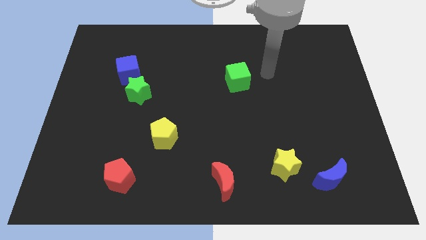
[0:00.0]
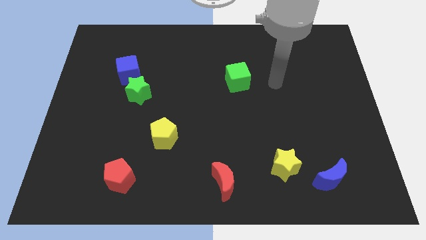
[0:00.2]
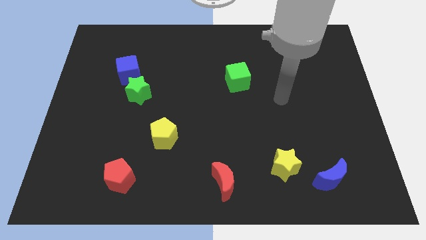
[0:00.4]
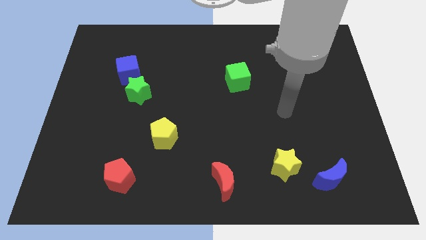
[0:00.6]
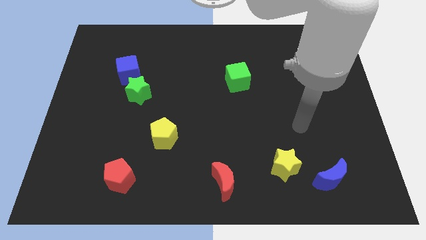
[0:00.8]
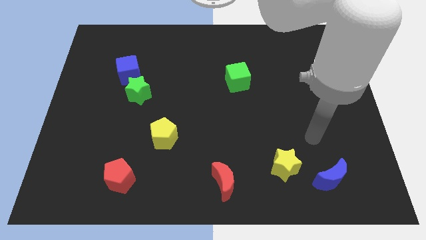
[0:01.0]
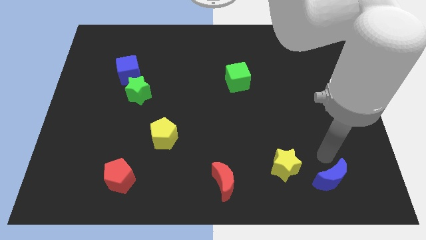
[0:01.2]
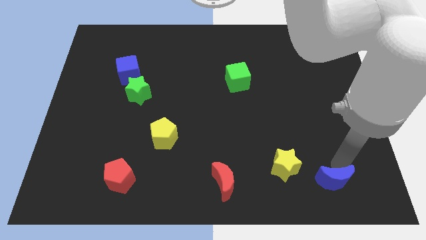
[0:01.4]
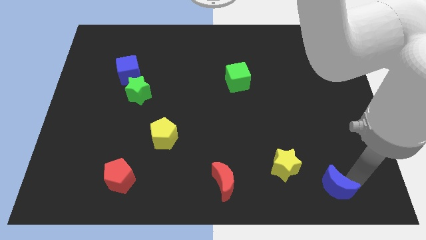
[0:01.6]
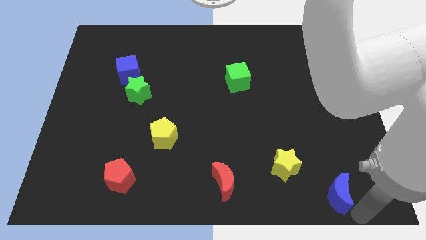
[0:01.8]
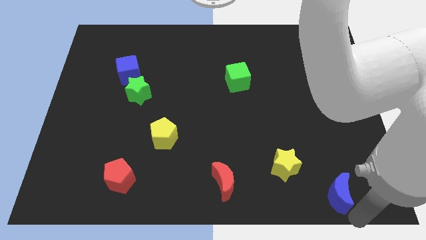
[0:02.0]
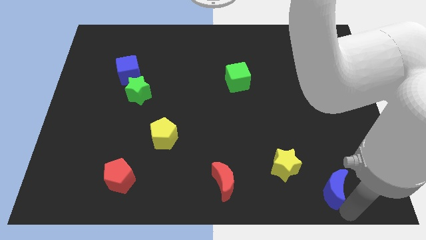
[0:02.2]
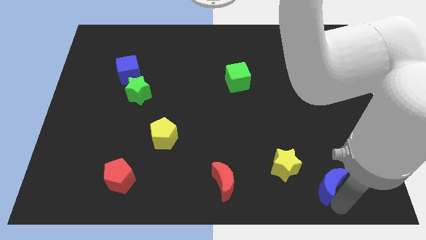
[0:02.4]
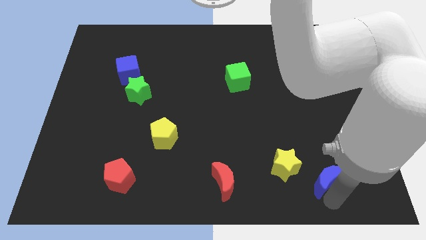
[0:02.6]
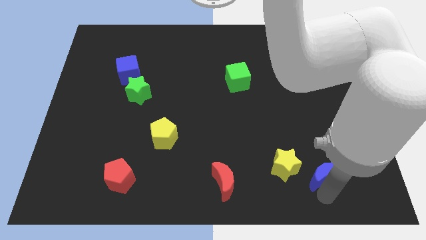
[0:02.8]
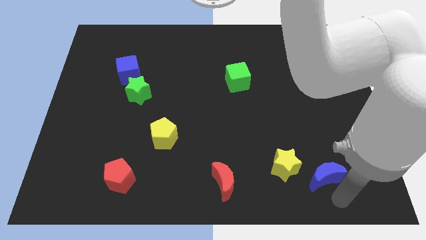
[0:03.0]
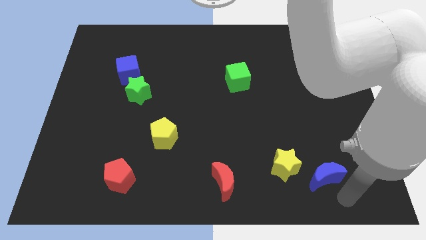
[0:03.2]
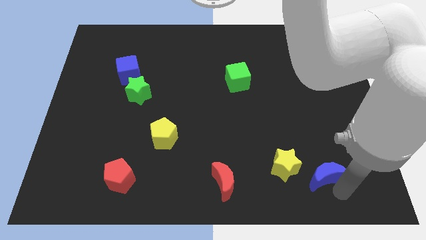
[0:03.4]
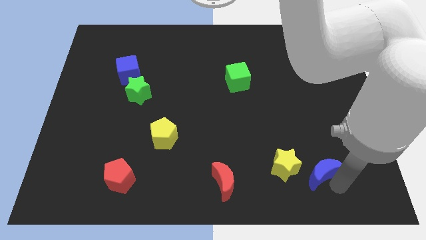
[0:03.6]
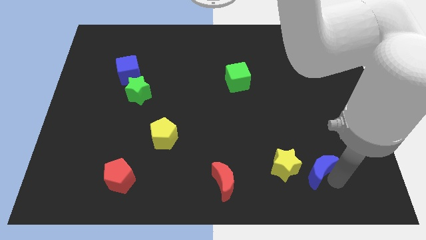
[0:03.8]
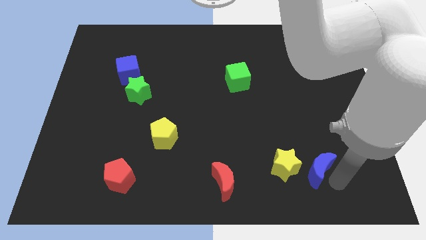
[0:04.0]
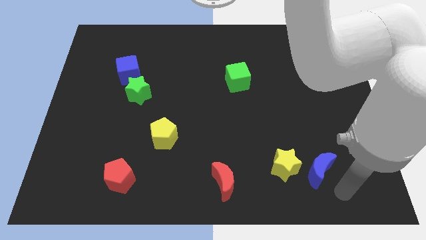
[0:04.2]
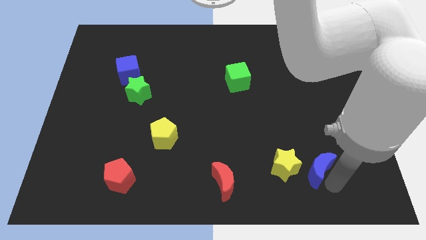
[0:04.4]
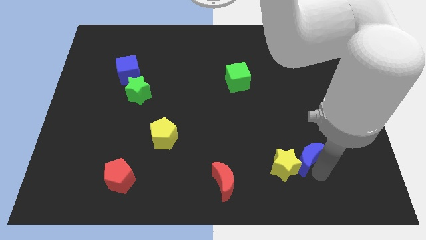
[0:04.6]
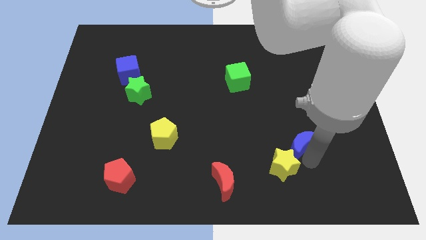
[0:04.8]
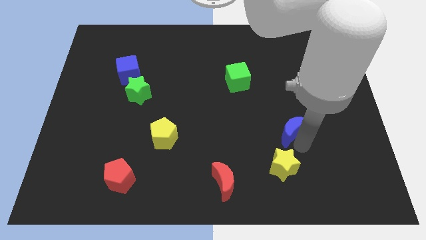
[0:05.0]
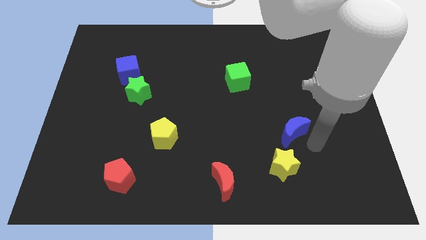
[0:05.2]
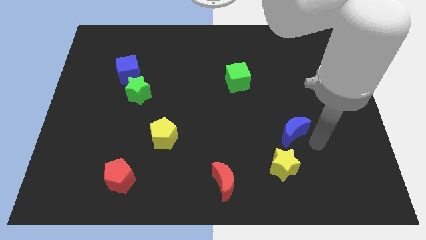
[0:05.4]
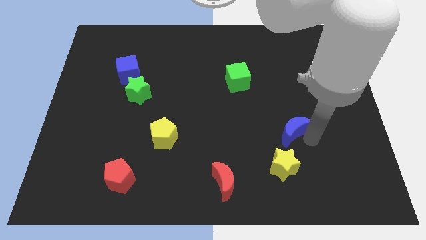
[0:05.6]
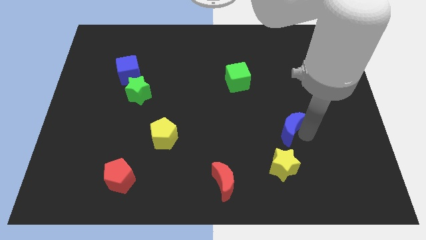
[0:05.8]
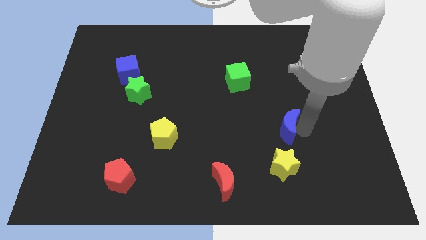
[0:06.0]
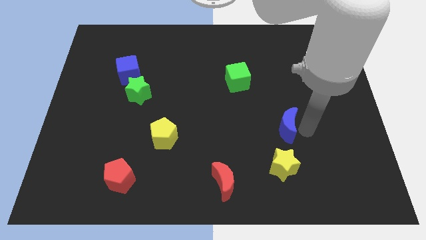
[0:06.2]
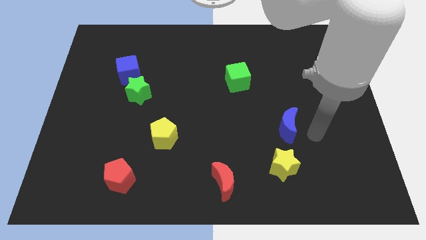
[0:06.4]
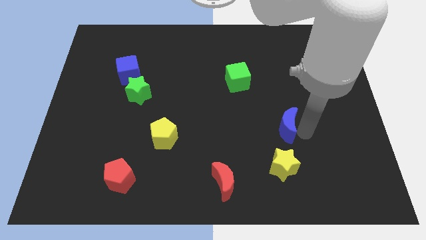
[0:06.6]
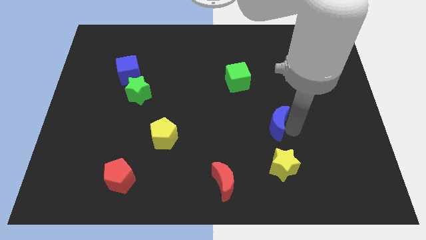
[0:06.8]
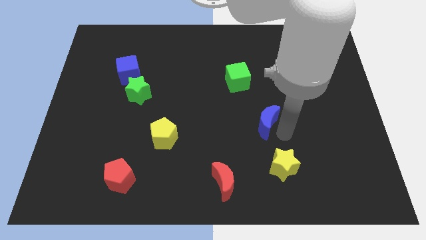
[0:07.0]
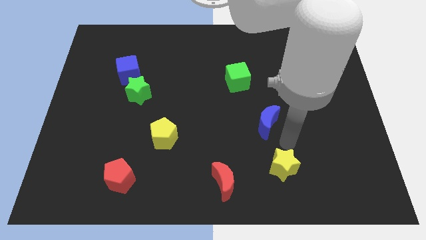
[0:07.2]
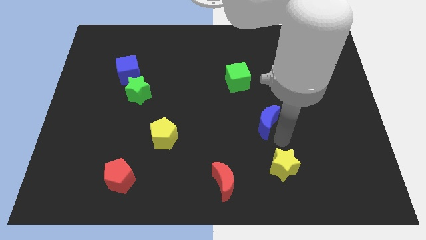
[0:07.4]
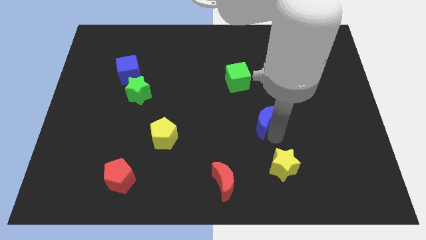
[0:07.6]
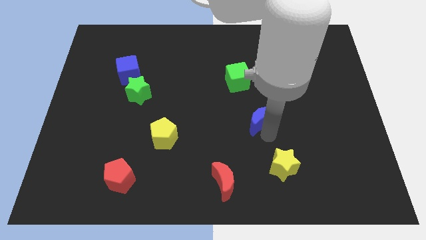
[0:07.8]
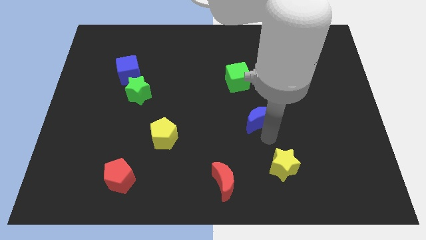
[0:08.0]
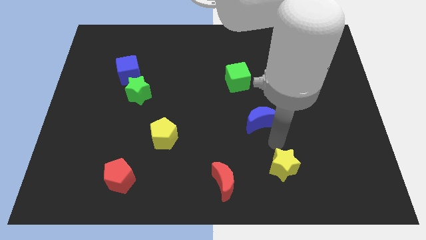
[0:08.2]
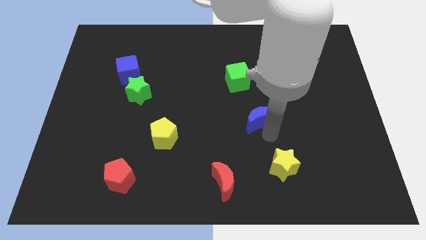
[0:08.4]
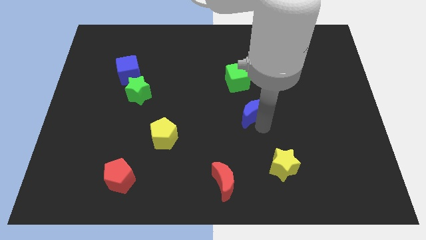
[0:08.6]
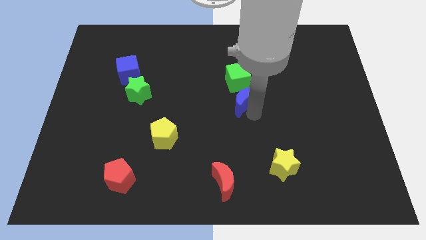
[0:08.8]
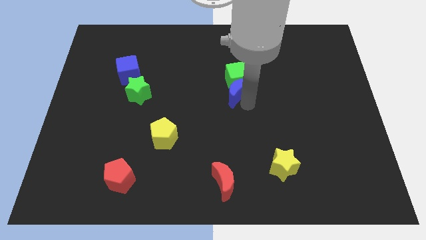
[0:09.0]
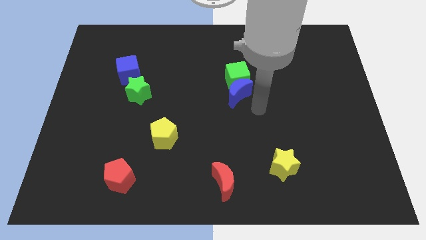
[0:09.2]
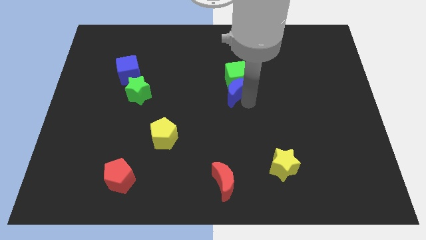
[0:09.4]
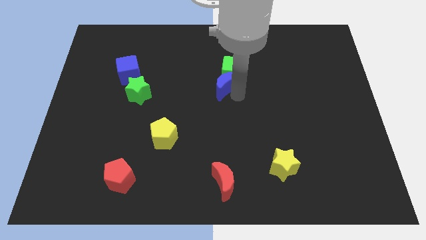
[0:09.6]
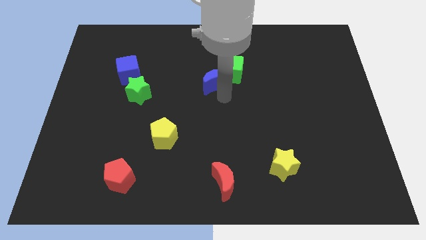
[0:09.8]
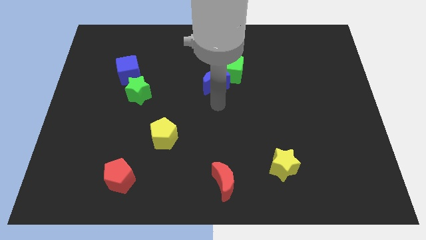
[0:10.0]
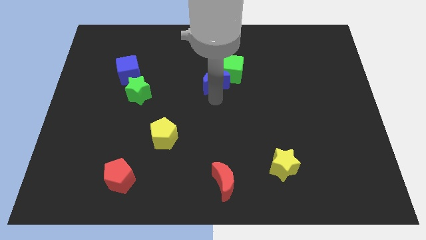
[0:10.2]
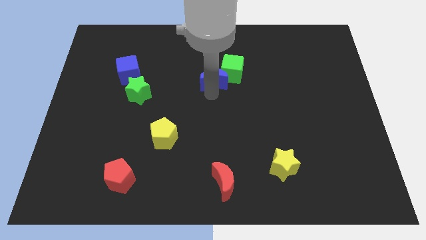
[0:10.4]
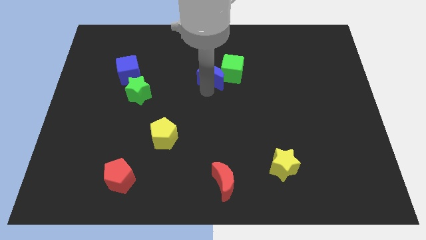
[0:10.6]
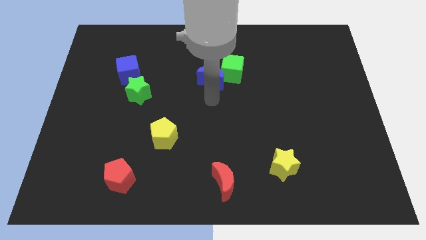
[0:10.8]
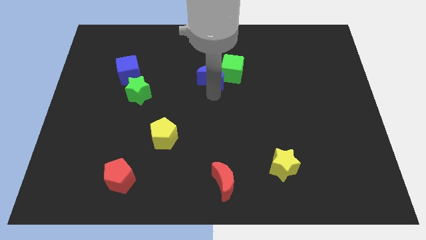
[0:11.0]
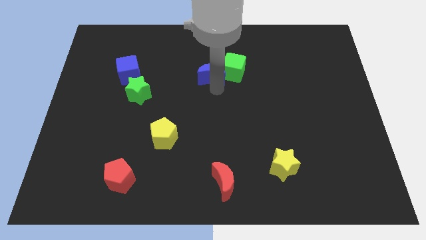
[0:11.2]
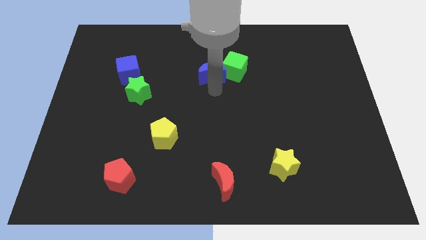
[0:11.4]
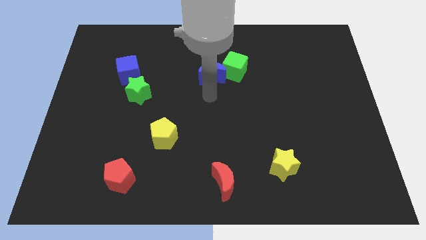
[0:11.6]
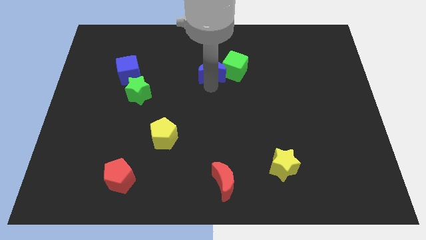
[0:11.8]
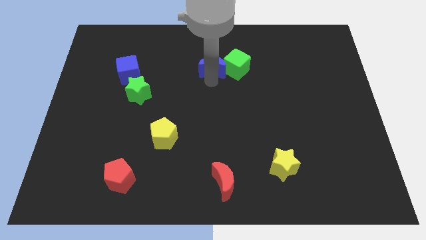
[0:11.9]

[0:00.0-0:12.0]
put the blue moon to the top left side of the green cube

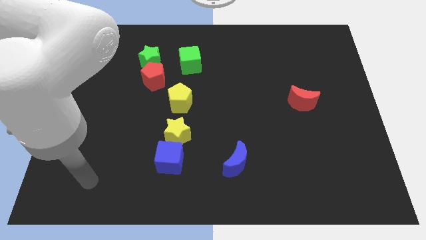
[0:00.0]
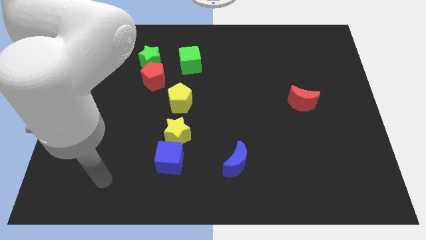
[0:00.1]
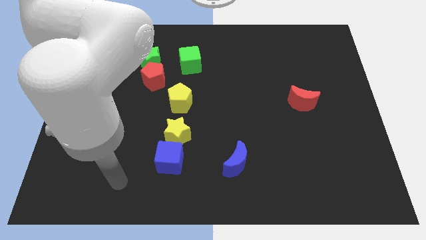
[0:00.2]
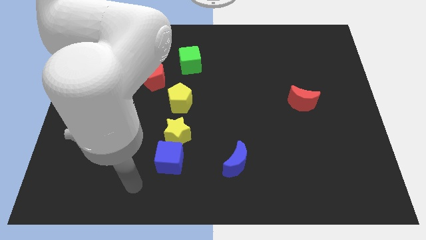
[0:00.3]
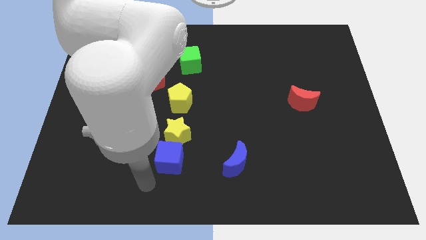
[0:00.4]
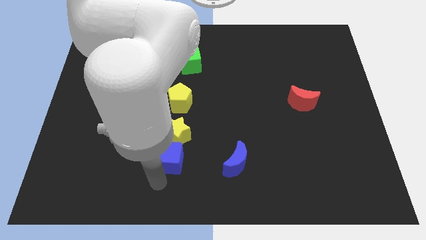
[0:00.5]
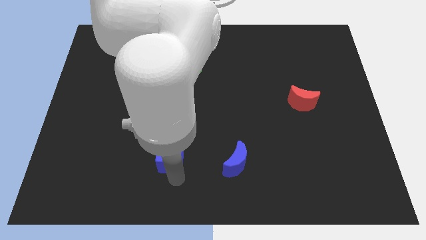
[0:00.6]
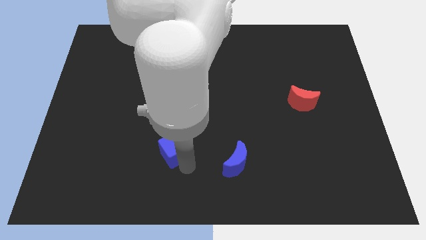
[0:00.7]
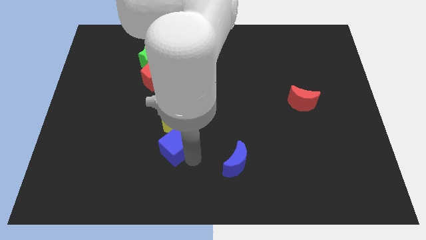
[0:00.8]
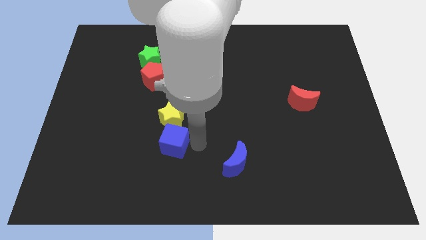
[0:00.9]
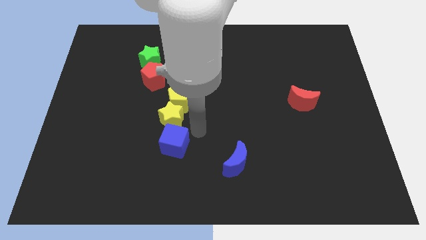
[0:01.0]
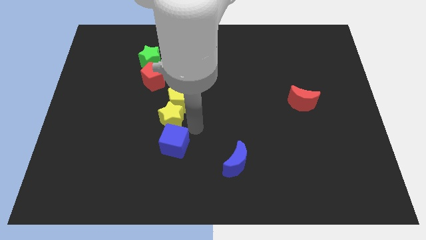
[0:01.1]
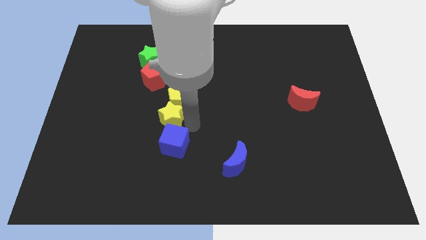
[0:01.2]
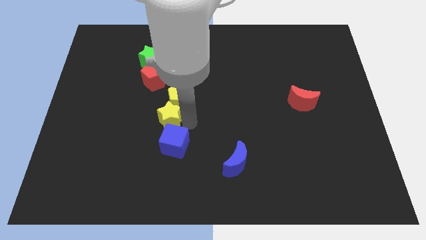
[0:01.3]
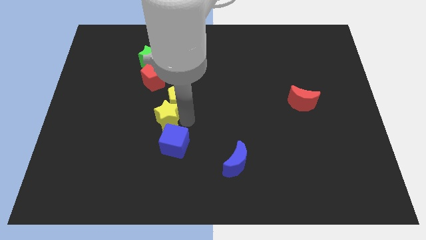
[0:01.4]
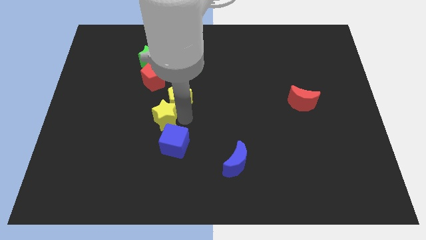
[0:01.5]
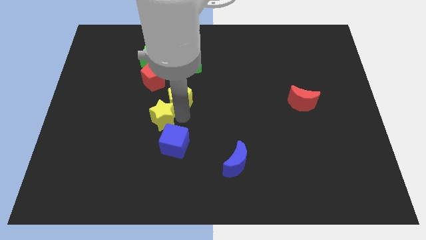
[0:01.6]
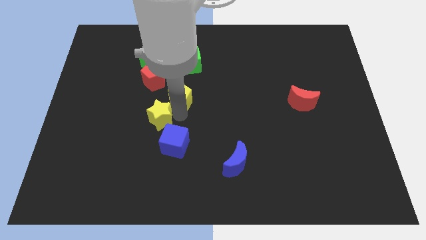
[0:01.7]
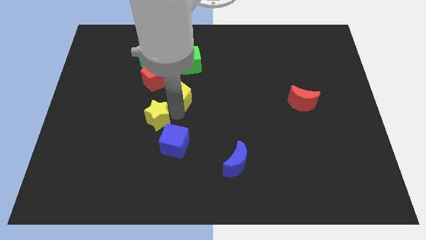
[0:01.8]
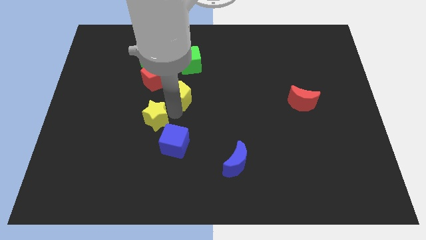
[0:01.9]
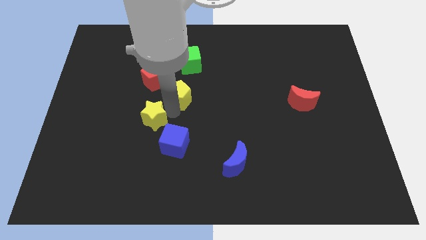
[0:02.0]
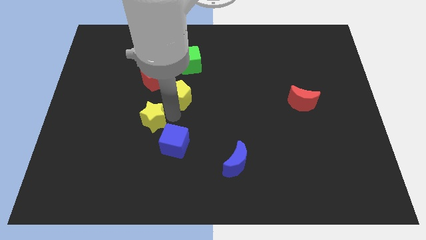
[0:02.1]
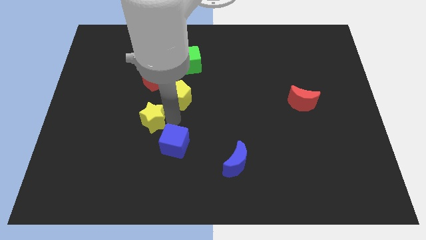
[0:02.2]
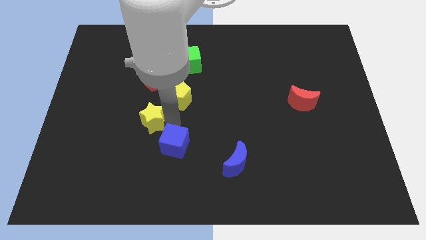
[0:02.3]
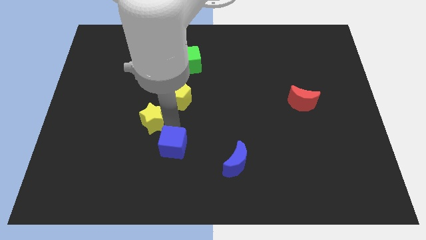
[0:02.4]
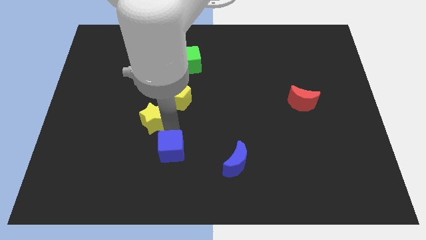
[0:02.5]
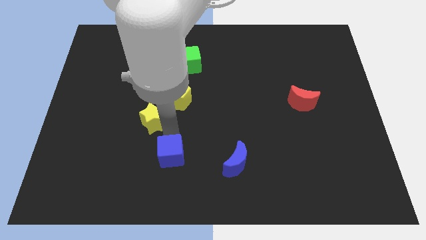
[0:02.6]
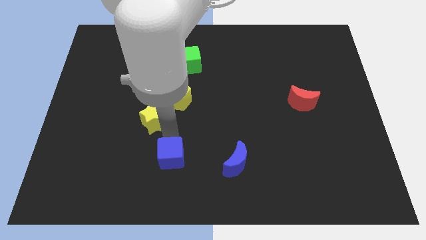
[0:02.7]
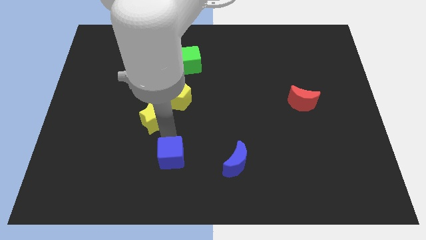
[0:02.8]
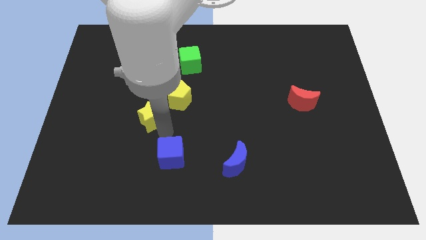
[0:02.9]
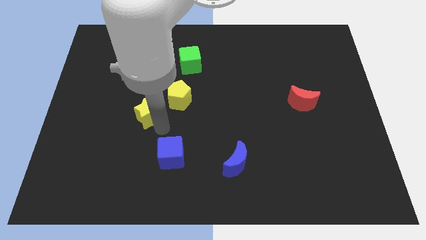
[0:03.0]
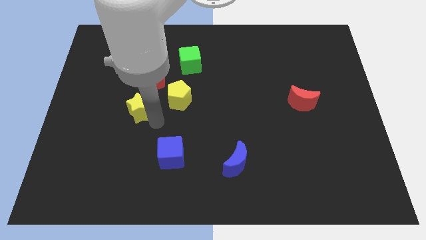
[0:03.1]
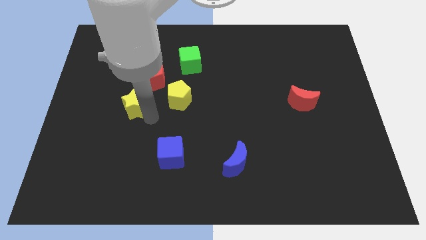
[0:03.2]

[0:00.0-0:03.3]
move the yellow star diagonally down and to the left of the red pentagon
